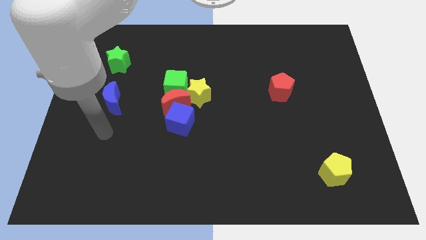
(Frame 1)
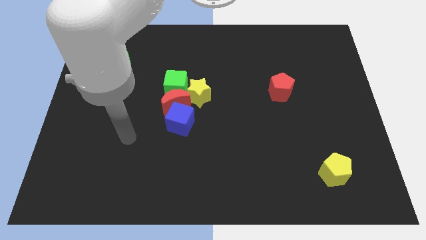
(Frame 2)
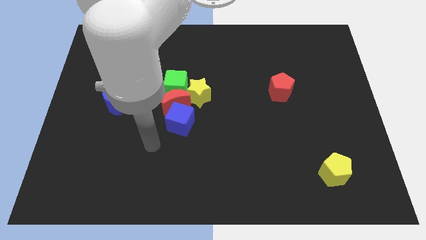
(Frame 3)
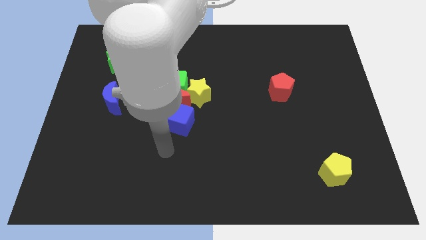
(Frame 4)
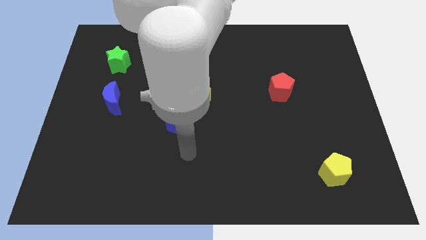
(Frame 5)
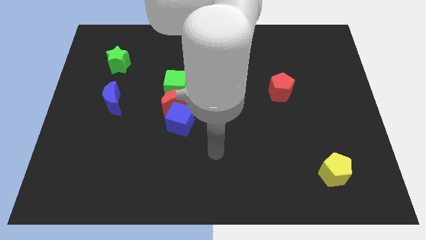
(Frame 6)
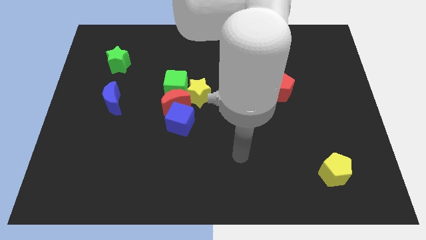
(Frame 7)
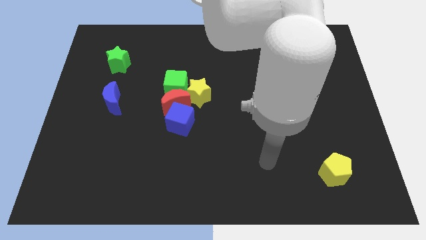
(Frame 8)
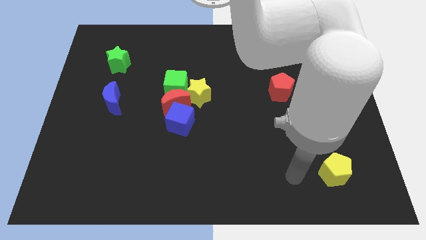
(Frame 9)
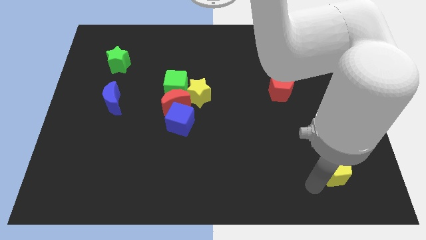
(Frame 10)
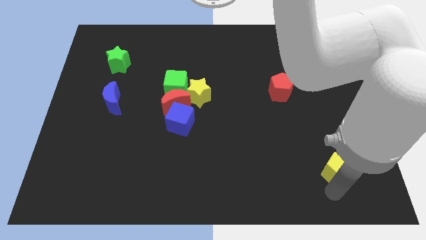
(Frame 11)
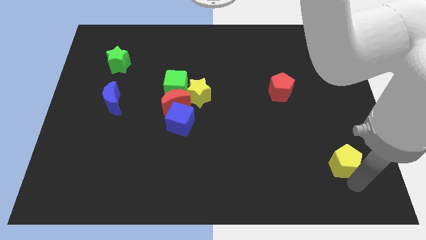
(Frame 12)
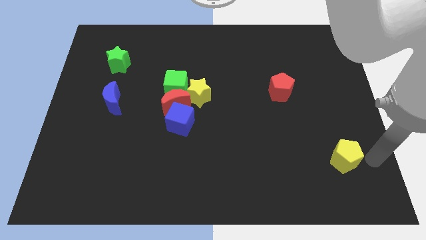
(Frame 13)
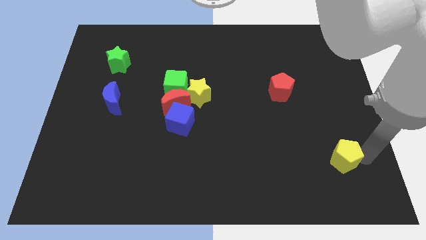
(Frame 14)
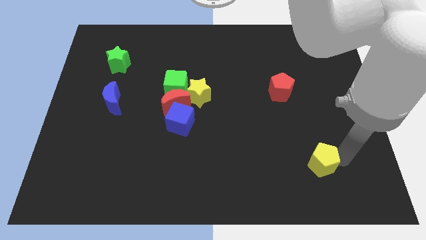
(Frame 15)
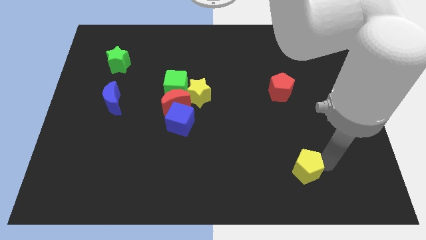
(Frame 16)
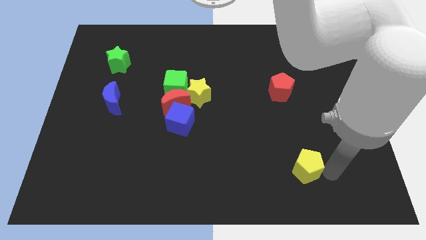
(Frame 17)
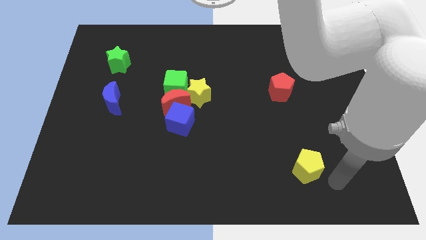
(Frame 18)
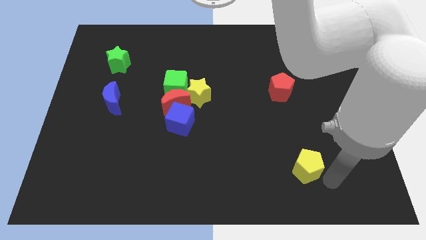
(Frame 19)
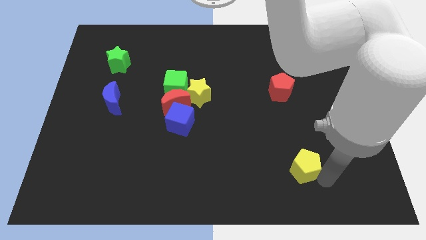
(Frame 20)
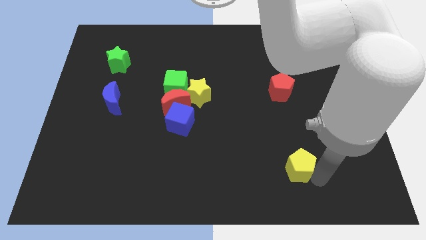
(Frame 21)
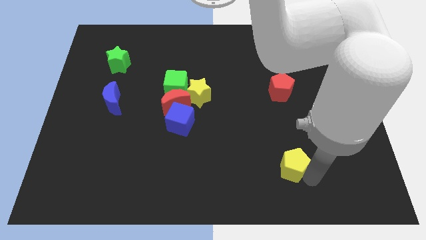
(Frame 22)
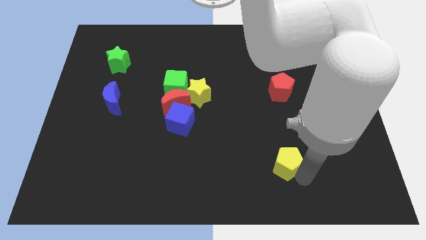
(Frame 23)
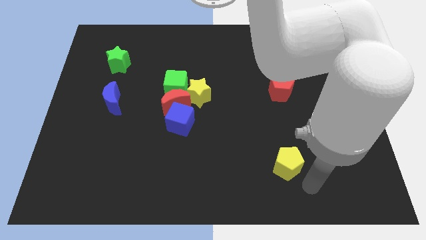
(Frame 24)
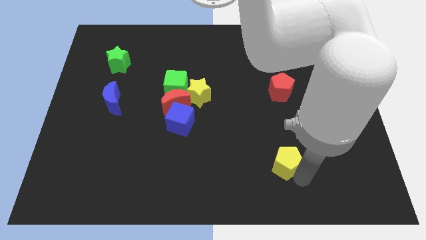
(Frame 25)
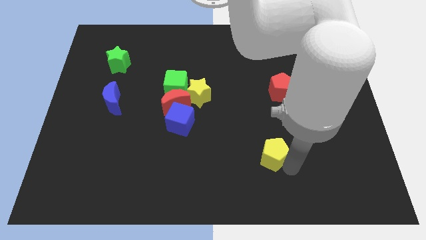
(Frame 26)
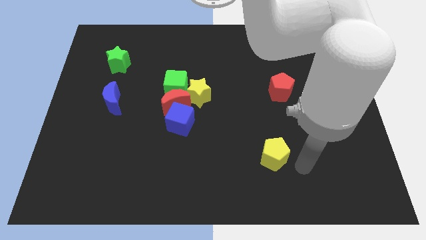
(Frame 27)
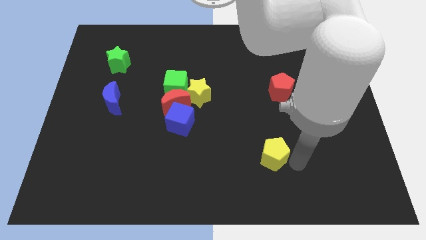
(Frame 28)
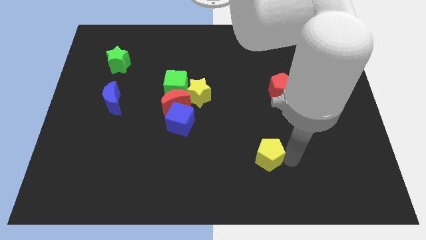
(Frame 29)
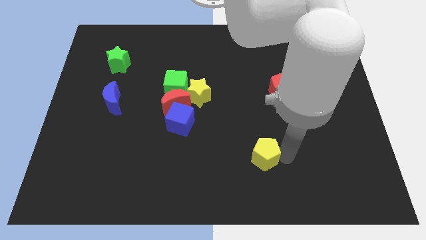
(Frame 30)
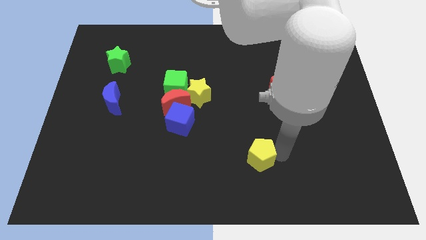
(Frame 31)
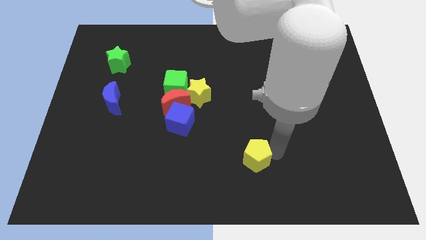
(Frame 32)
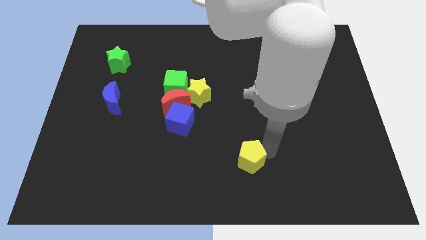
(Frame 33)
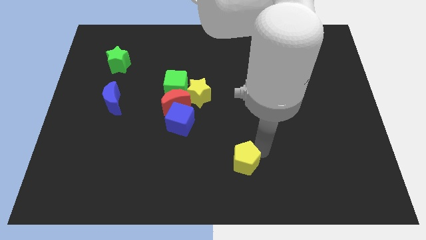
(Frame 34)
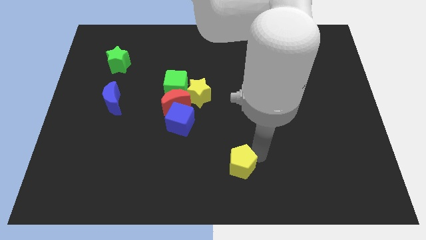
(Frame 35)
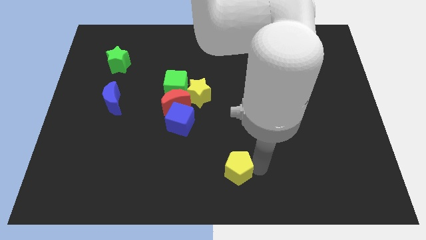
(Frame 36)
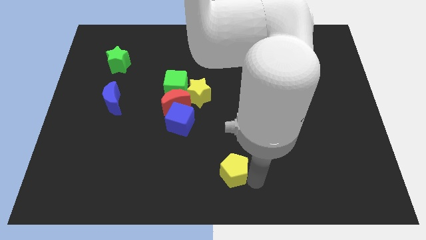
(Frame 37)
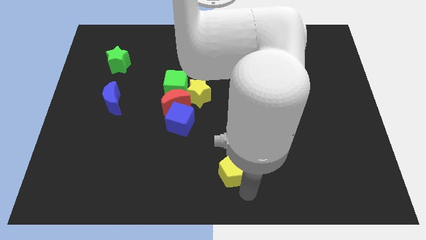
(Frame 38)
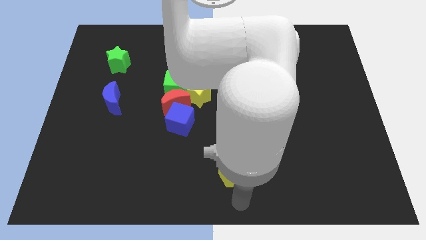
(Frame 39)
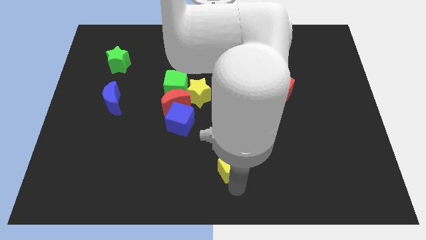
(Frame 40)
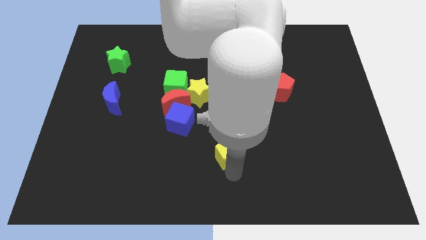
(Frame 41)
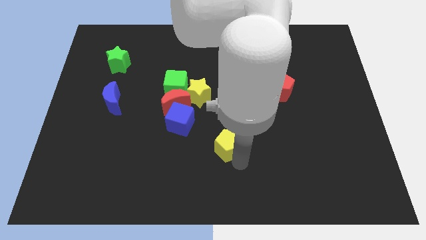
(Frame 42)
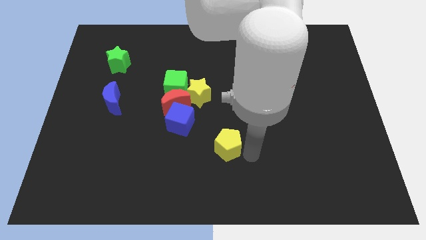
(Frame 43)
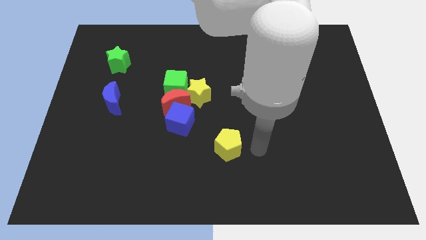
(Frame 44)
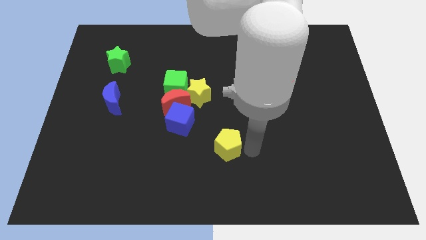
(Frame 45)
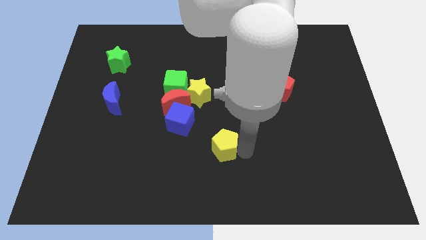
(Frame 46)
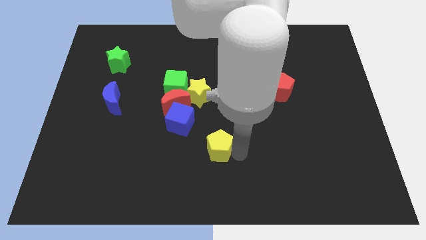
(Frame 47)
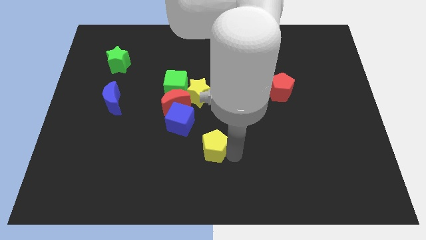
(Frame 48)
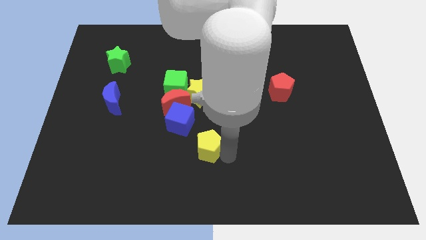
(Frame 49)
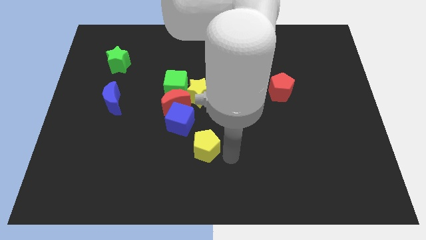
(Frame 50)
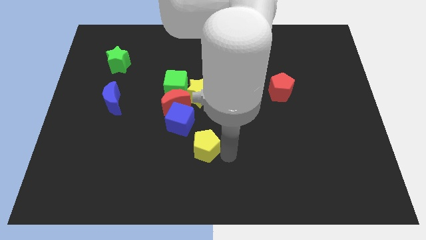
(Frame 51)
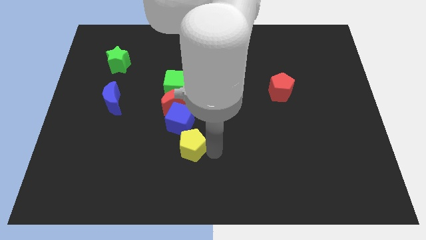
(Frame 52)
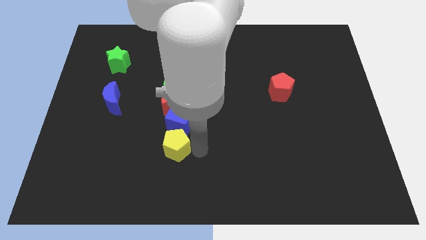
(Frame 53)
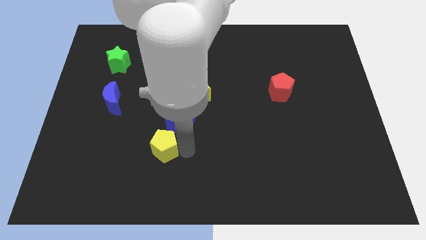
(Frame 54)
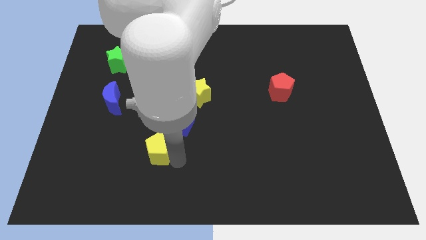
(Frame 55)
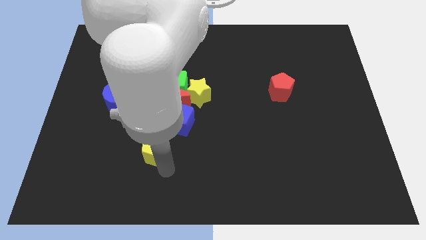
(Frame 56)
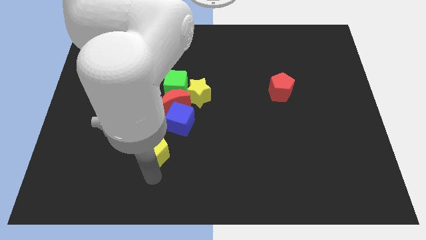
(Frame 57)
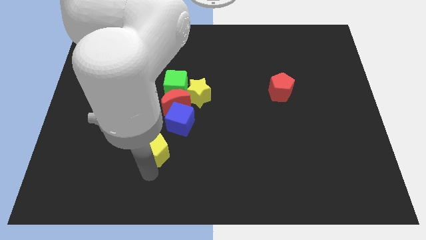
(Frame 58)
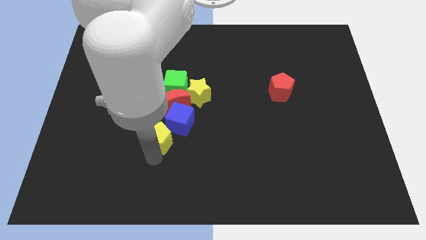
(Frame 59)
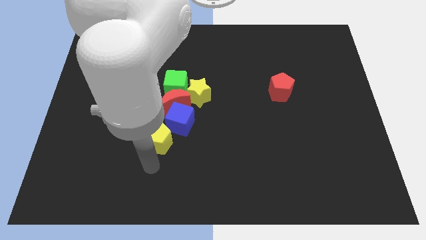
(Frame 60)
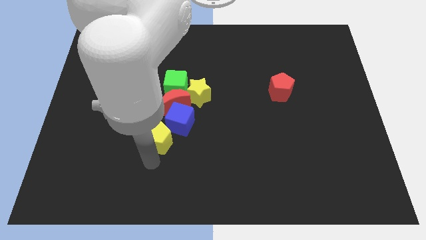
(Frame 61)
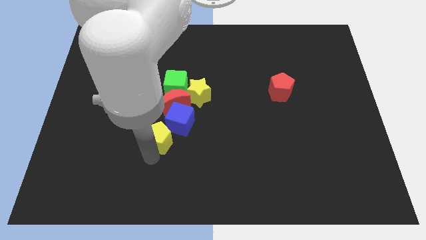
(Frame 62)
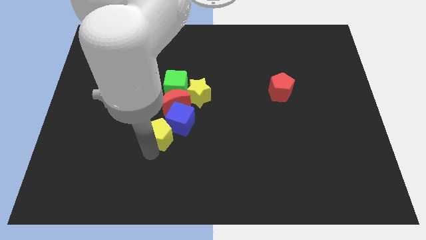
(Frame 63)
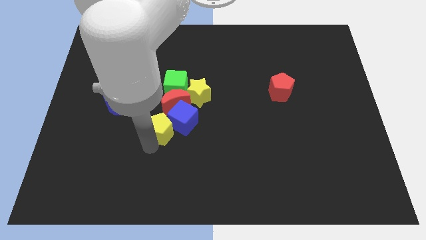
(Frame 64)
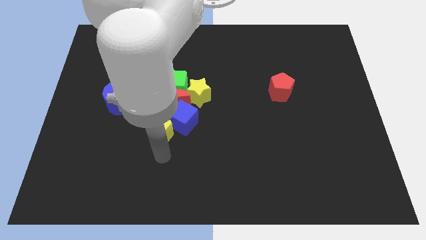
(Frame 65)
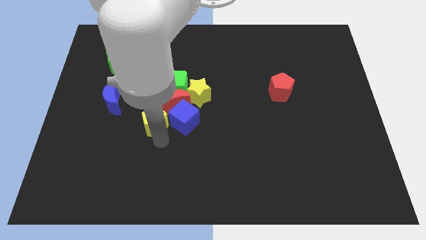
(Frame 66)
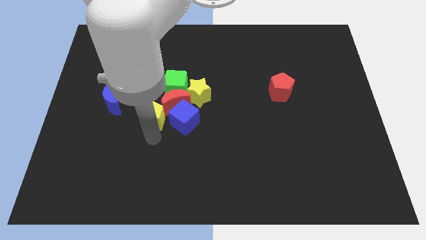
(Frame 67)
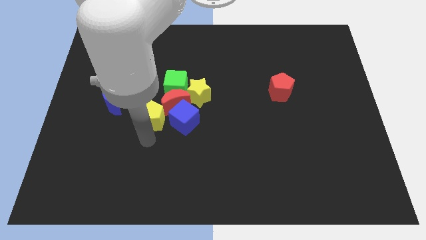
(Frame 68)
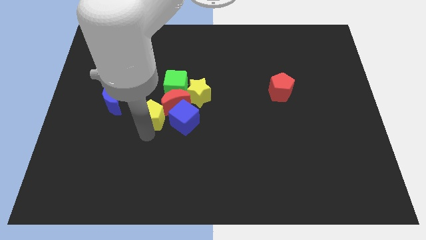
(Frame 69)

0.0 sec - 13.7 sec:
slide the yellow pentagon to the right of the blue moon
